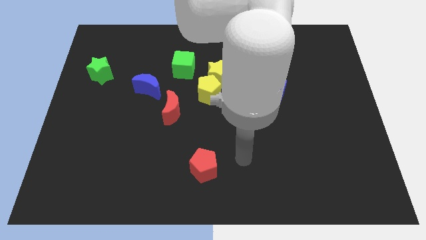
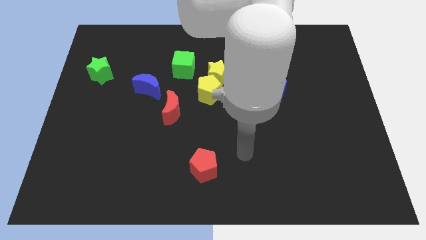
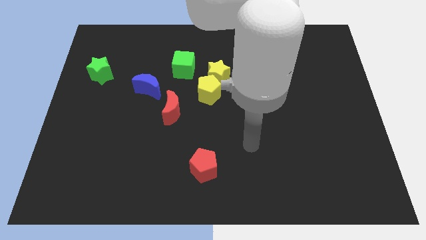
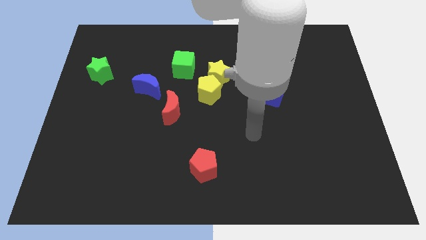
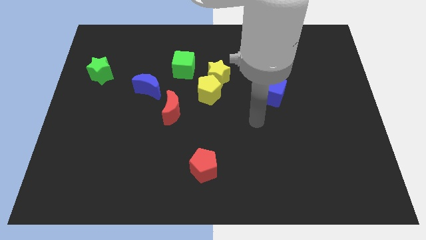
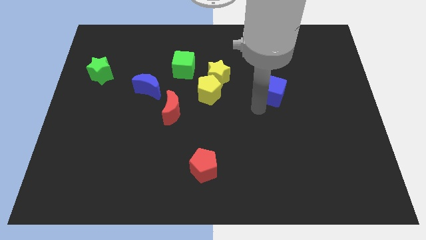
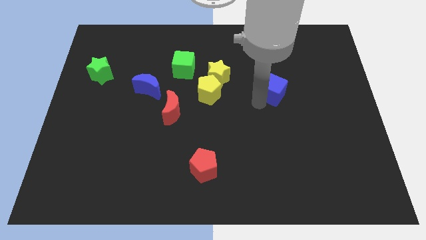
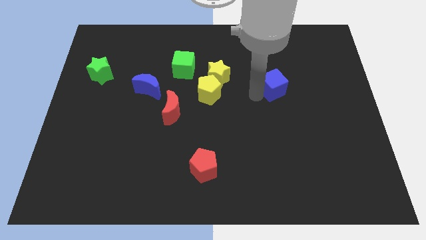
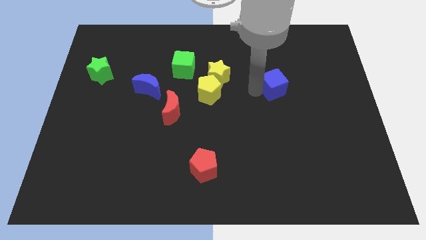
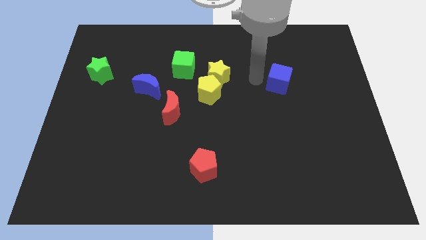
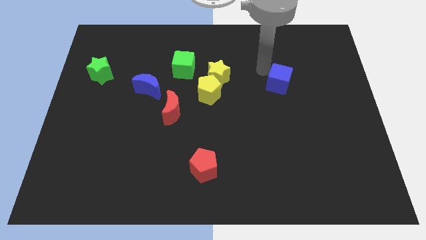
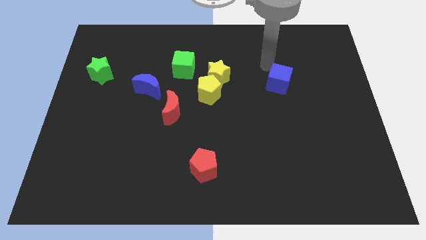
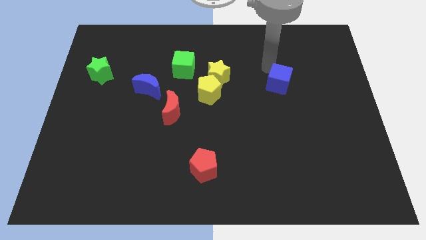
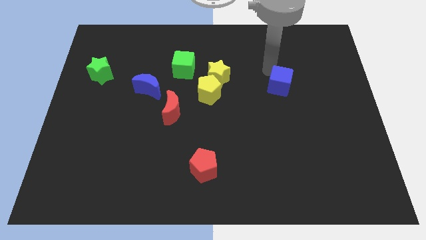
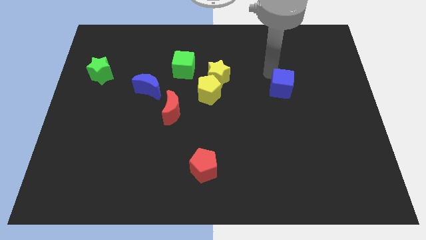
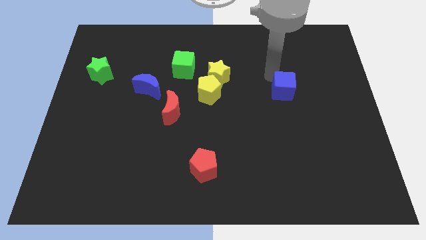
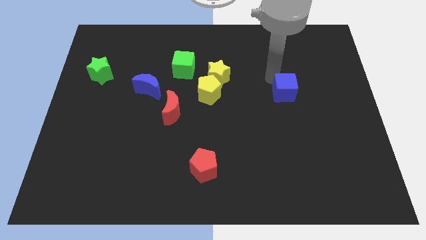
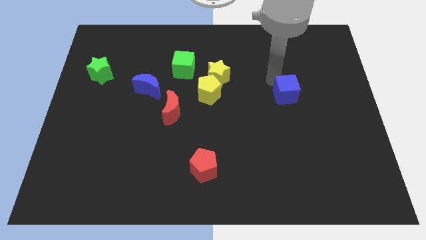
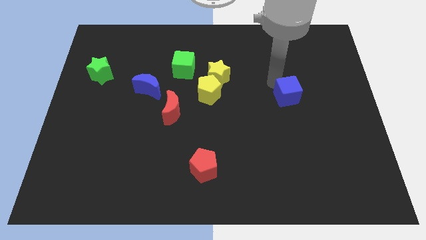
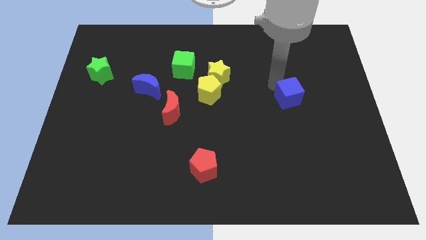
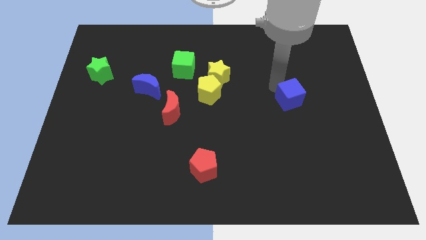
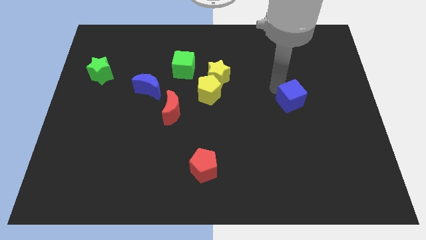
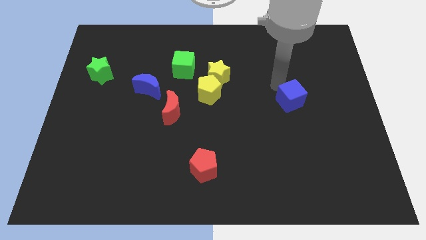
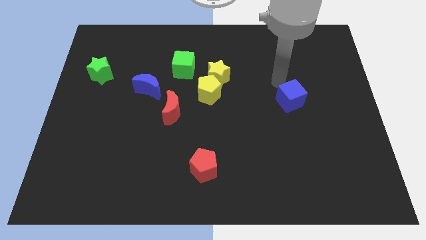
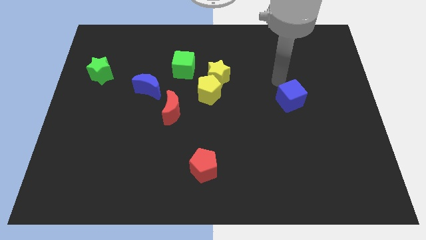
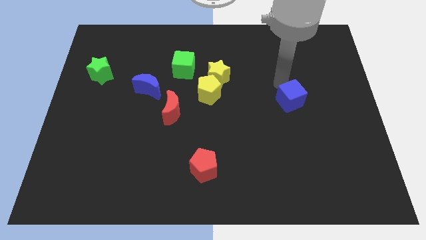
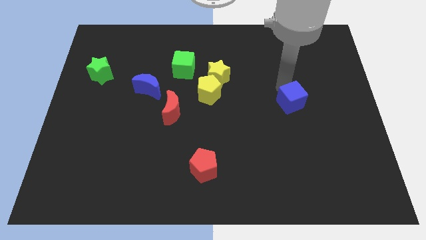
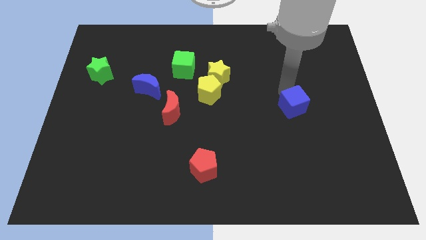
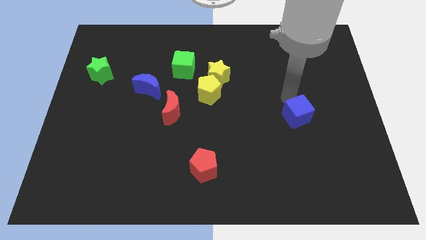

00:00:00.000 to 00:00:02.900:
move the blue cube a little bit diagonally downwards and right

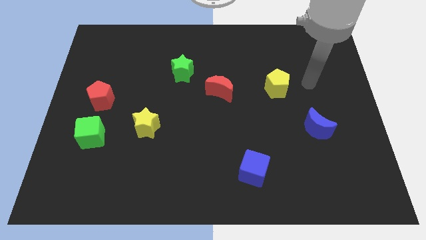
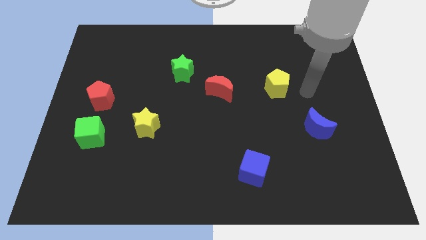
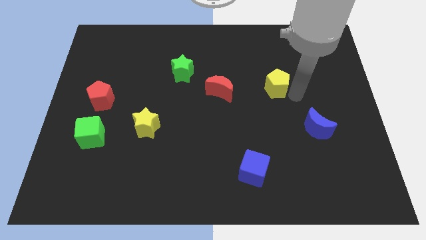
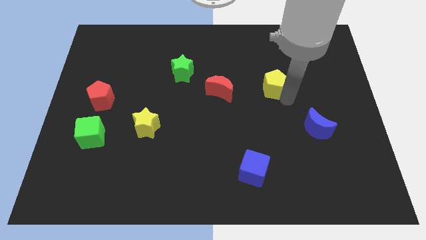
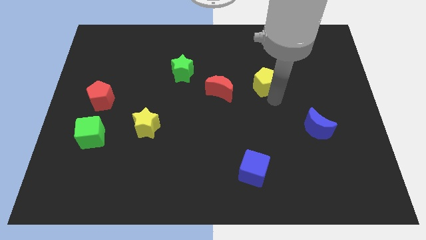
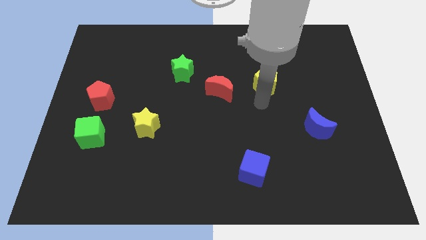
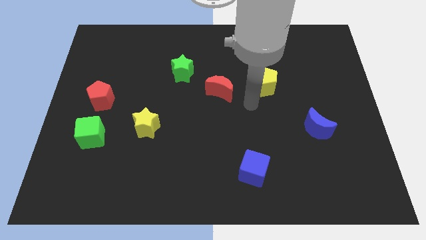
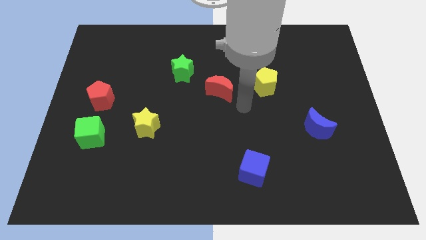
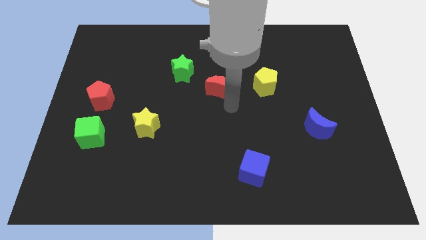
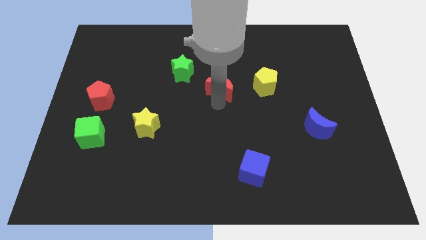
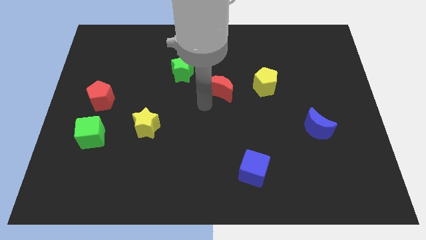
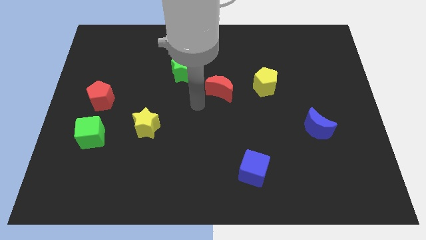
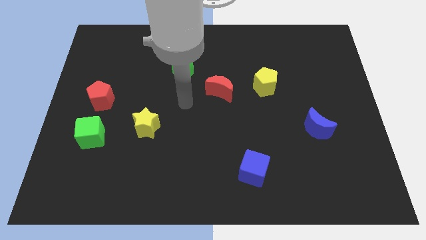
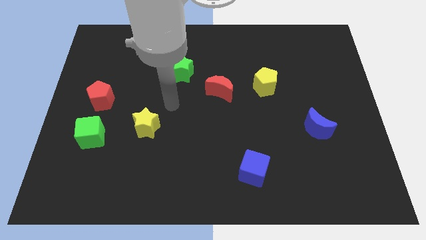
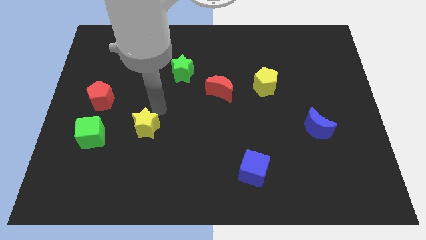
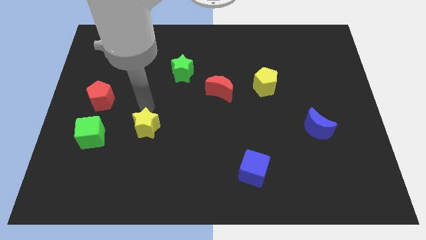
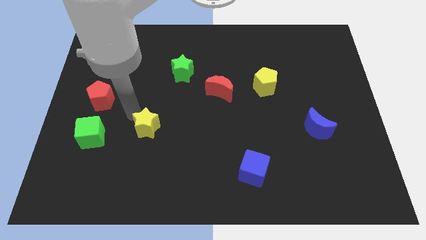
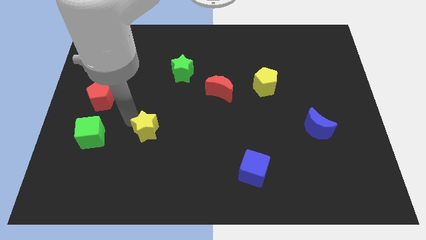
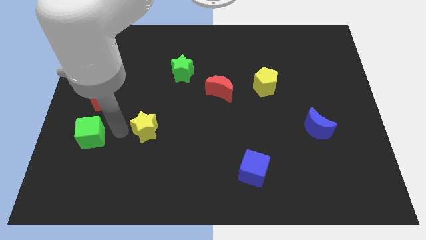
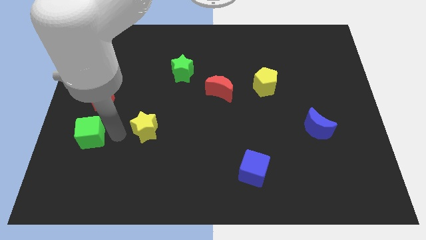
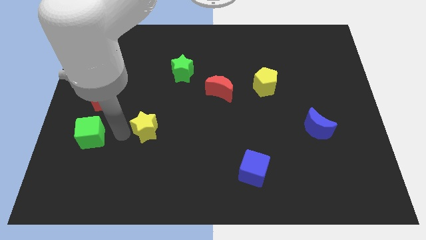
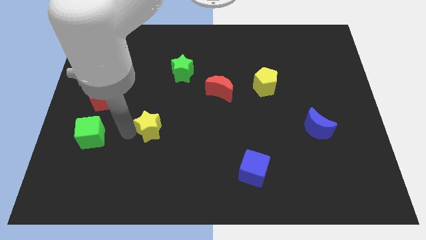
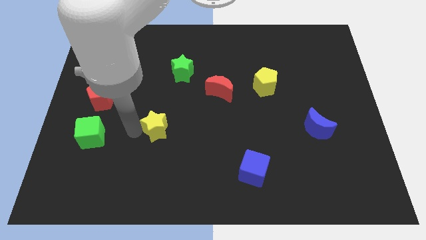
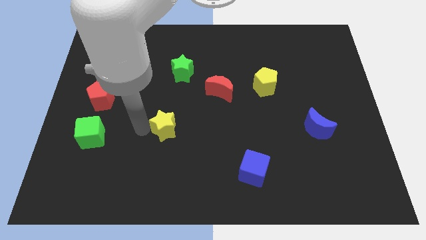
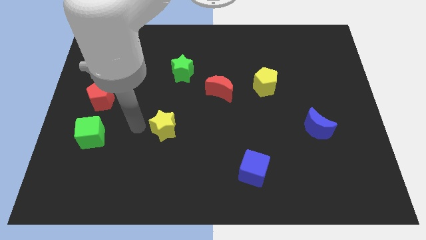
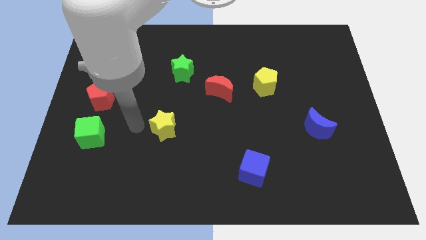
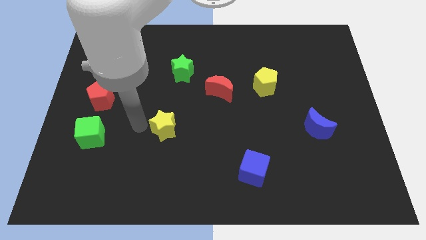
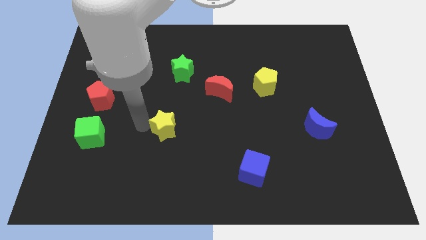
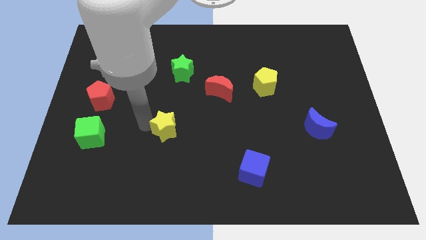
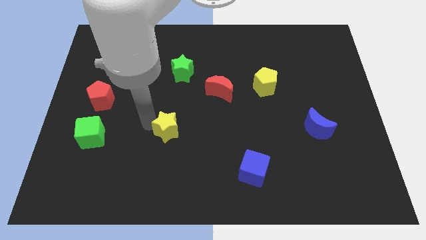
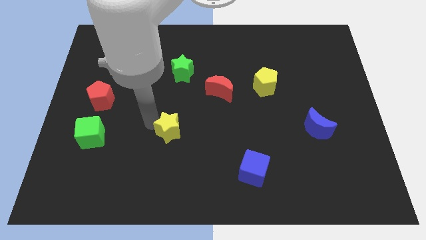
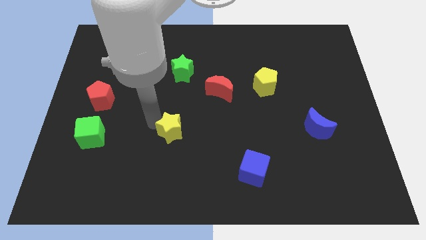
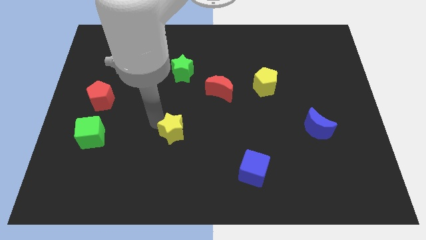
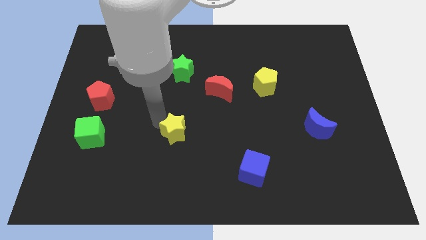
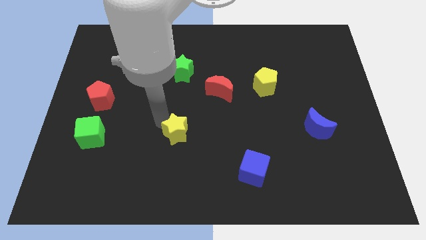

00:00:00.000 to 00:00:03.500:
slightly slide the yellow star right

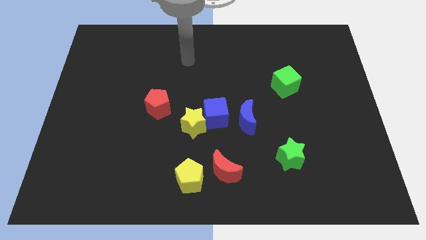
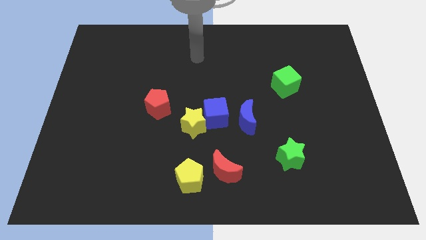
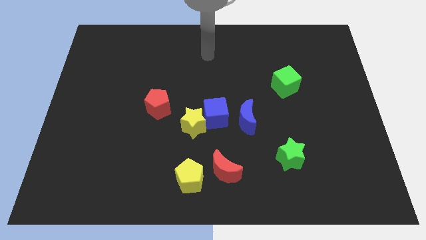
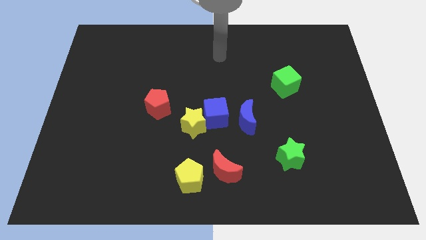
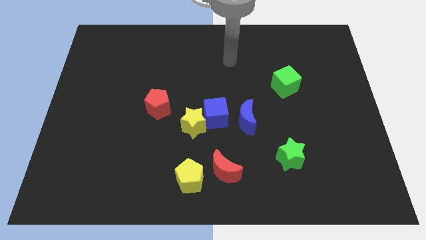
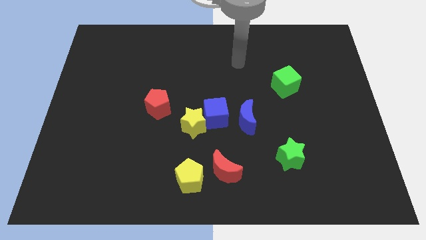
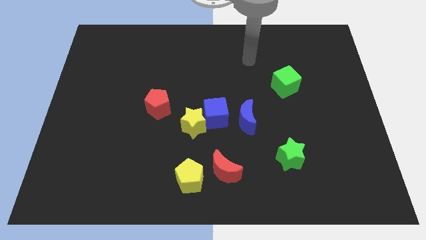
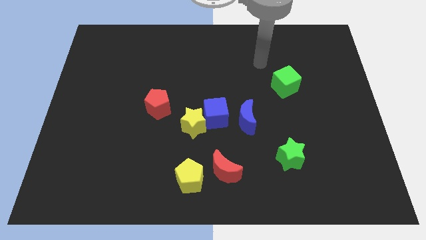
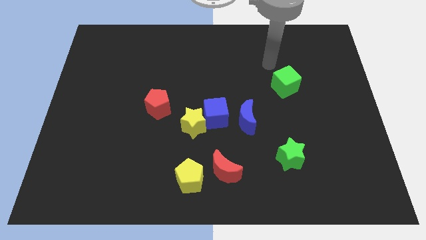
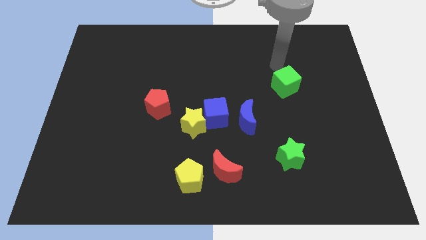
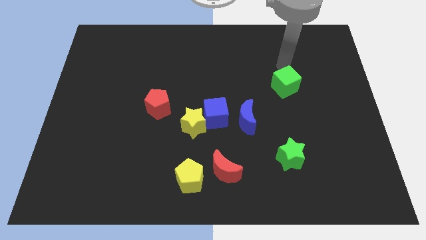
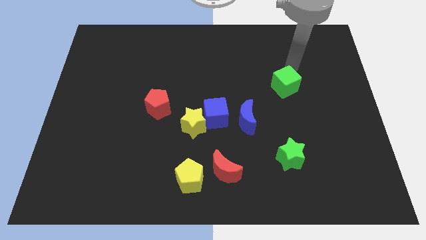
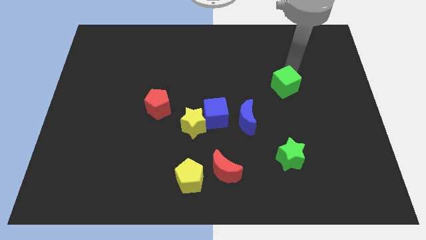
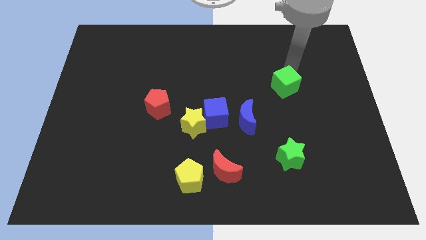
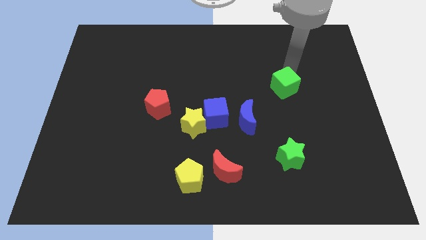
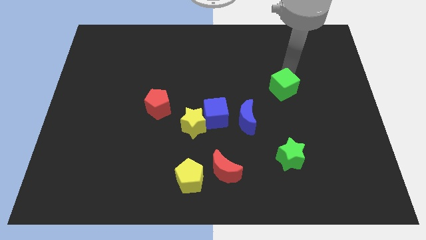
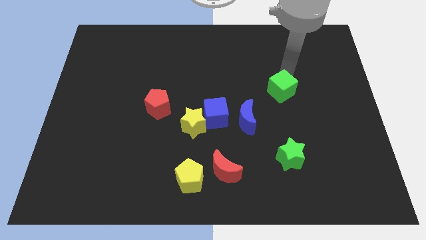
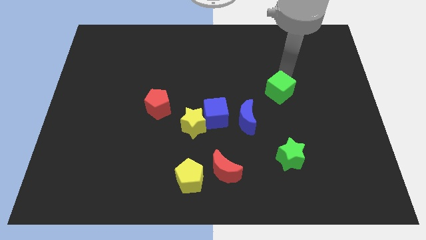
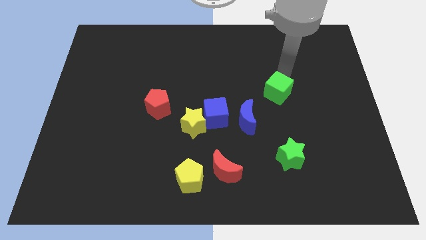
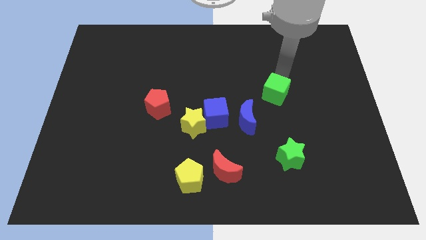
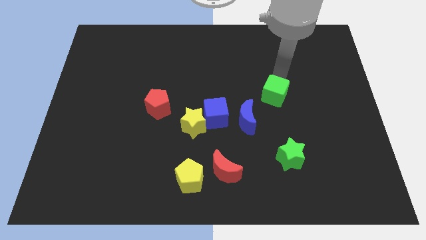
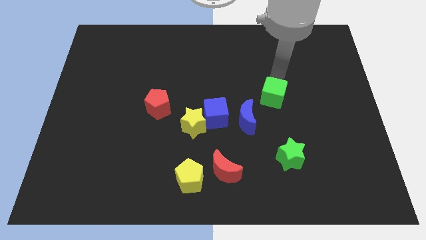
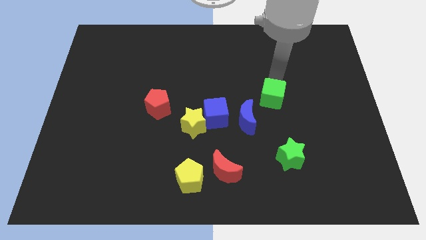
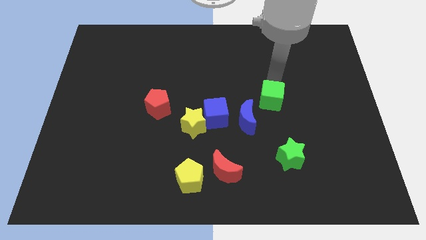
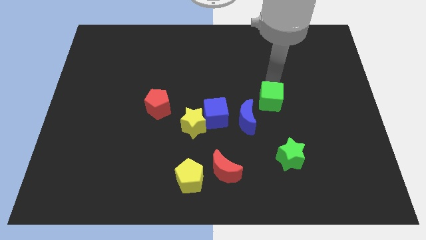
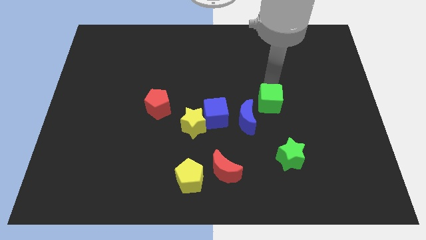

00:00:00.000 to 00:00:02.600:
slide the green cube a bit down and left
